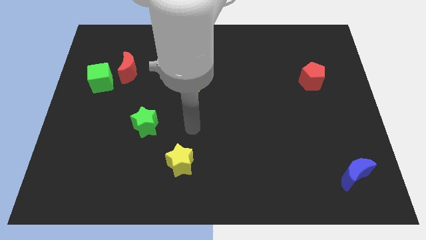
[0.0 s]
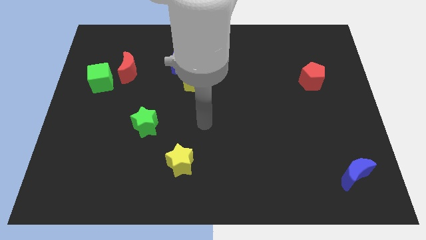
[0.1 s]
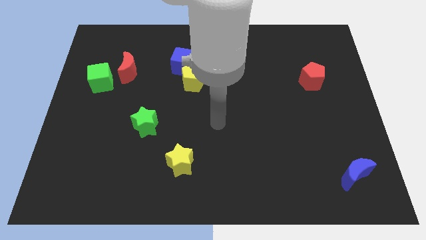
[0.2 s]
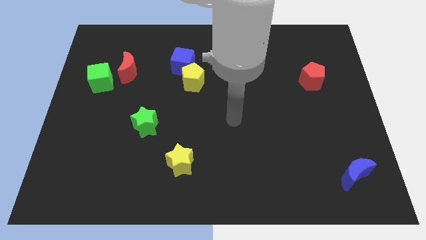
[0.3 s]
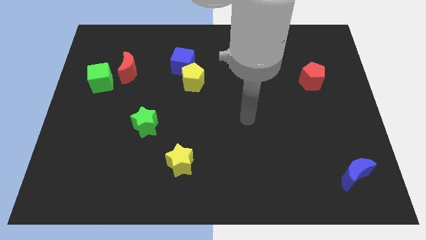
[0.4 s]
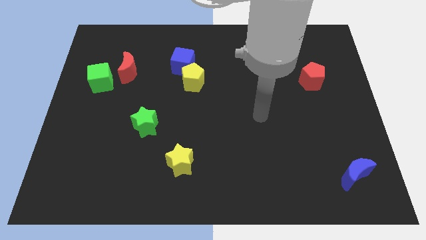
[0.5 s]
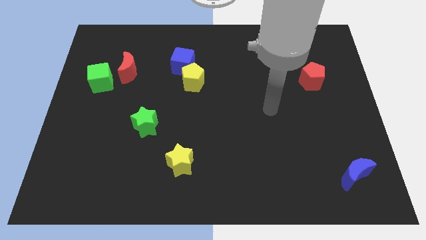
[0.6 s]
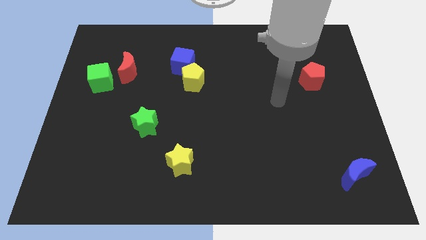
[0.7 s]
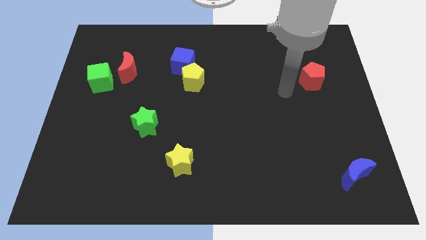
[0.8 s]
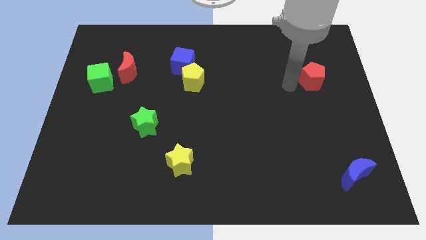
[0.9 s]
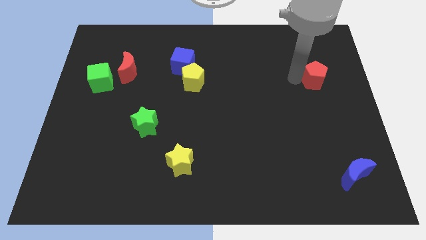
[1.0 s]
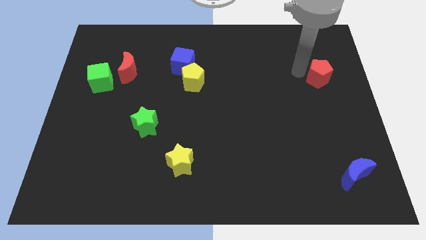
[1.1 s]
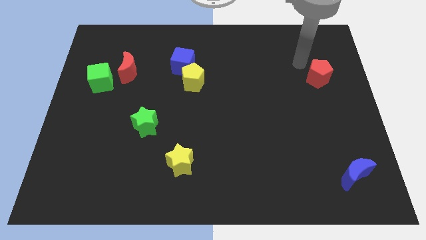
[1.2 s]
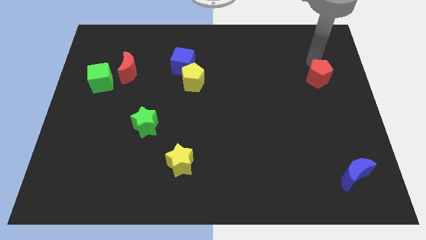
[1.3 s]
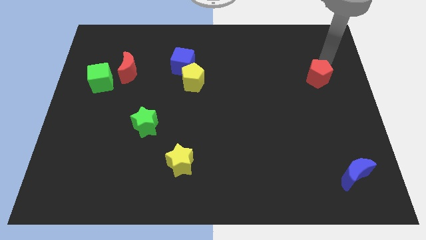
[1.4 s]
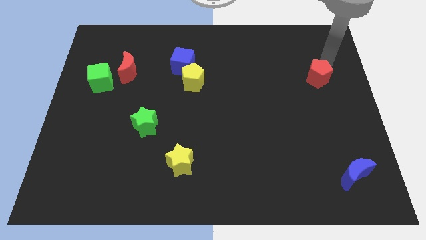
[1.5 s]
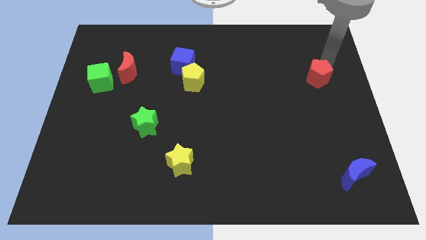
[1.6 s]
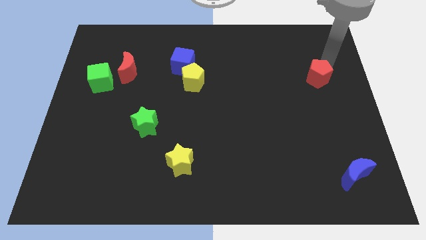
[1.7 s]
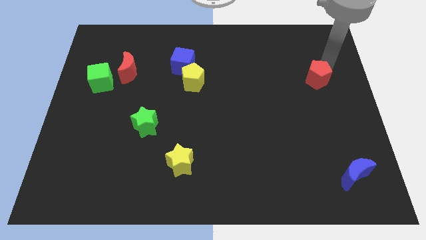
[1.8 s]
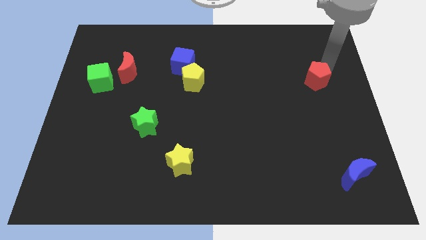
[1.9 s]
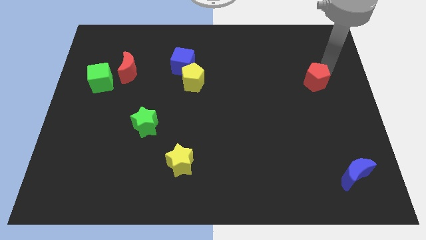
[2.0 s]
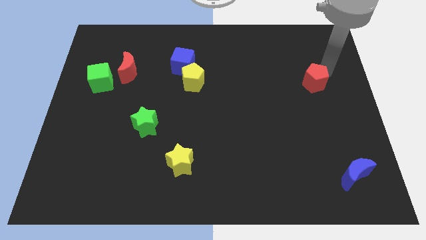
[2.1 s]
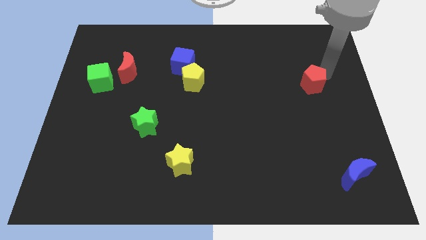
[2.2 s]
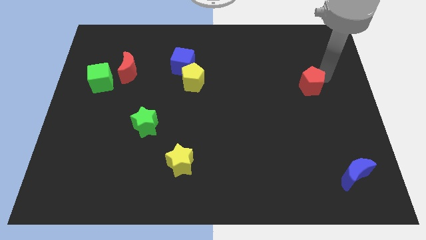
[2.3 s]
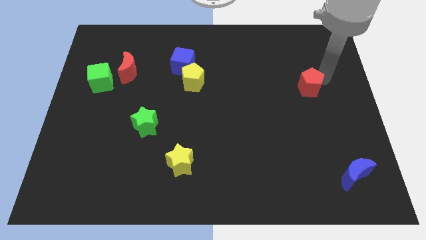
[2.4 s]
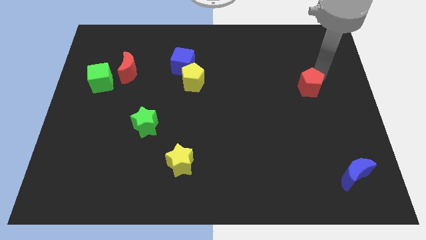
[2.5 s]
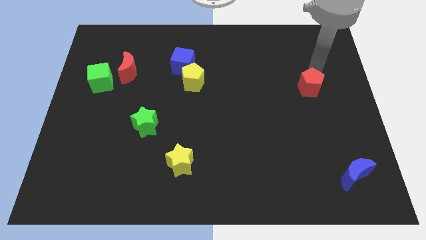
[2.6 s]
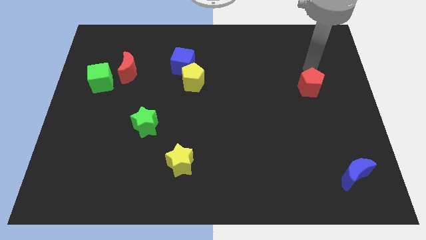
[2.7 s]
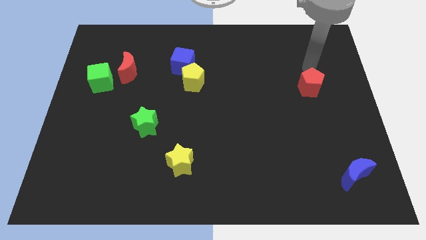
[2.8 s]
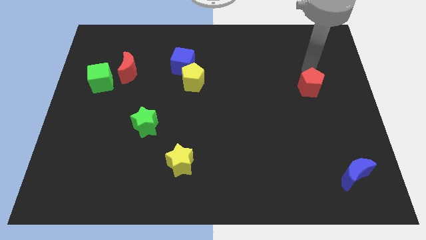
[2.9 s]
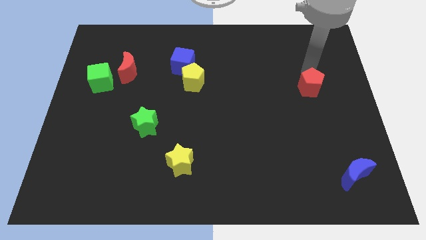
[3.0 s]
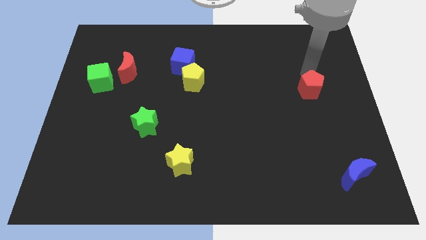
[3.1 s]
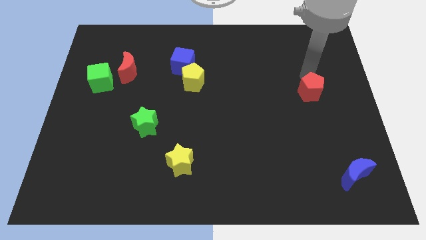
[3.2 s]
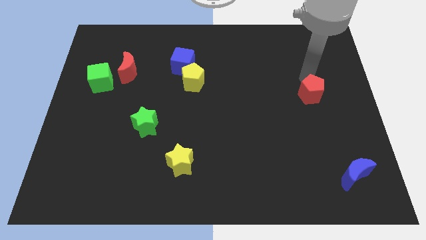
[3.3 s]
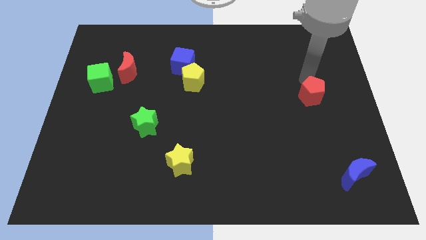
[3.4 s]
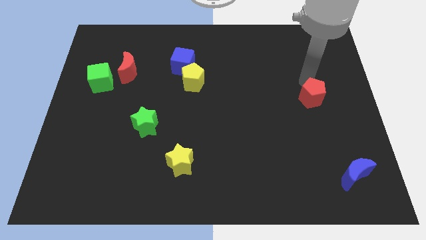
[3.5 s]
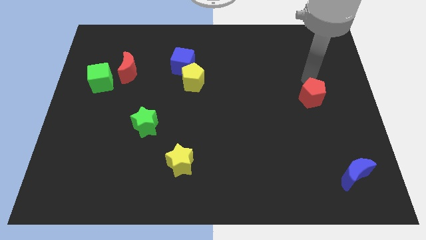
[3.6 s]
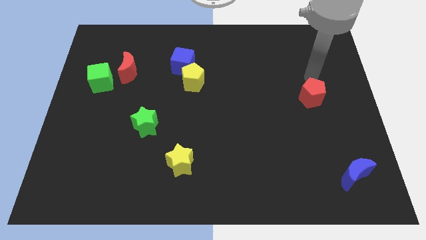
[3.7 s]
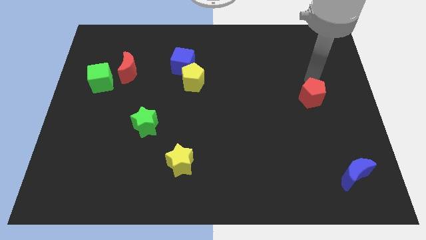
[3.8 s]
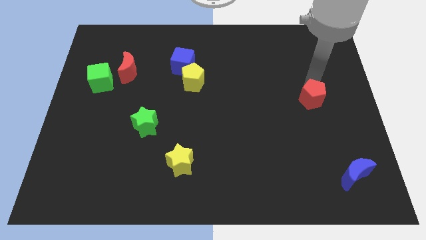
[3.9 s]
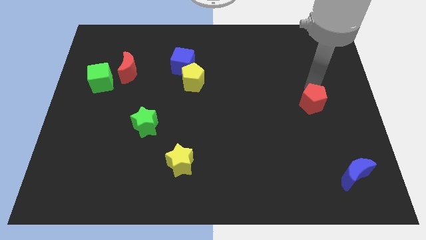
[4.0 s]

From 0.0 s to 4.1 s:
push the red pentagon down a bit

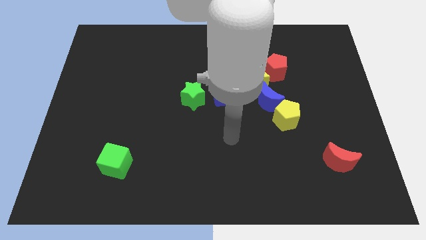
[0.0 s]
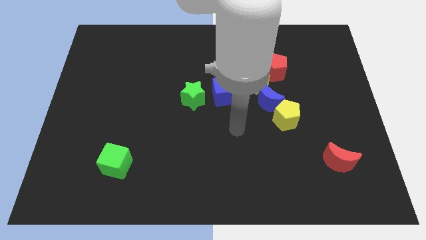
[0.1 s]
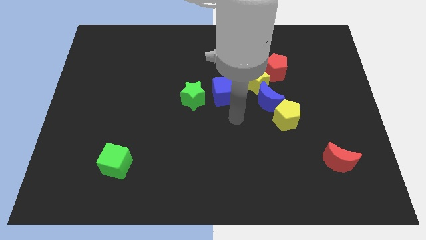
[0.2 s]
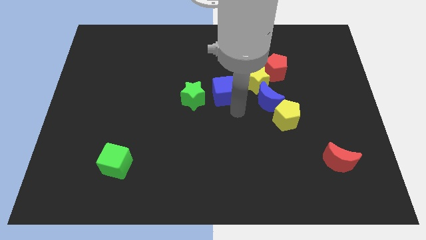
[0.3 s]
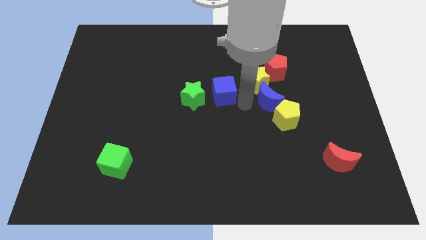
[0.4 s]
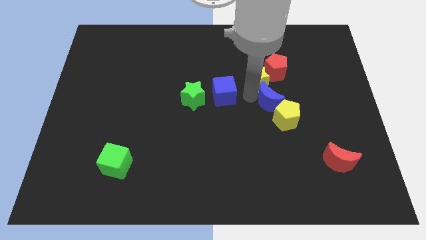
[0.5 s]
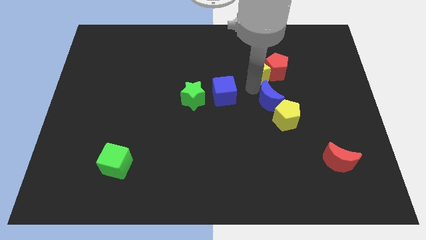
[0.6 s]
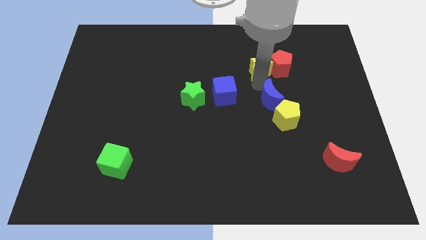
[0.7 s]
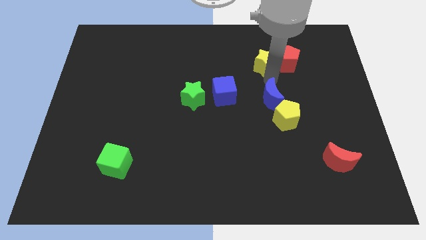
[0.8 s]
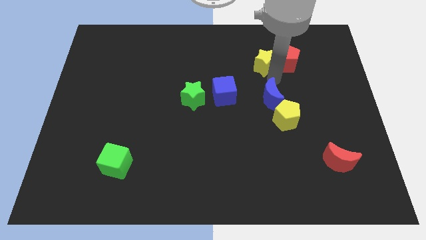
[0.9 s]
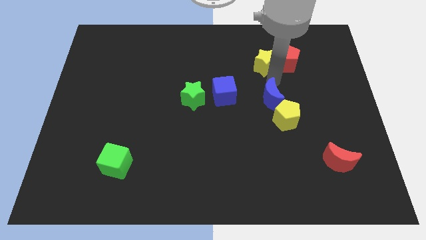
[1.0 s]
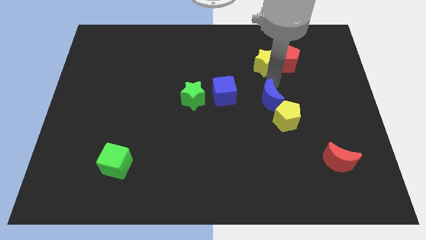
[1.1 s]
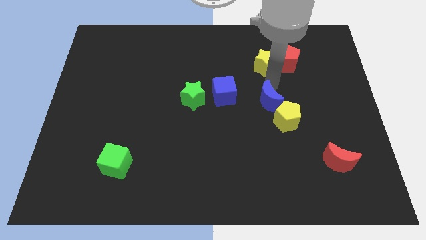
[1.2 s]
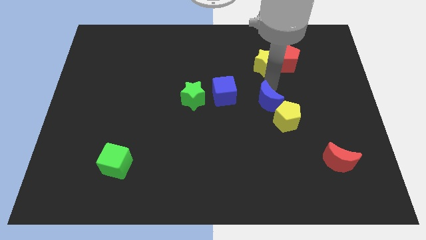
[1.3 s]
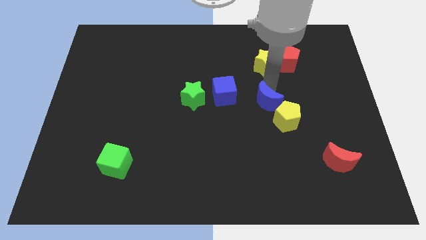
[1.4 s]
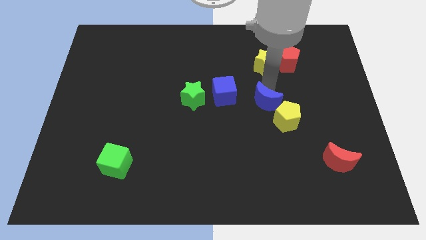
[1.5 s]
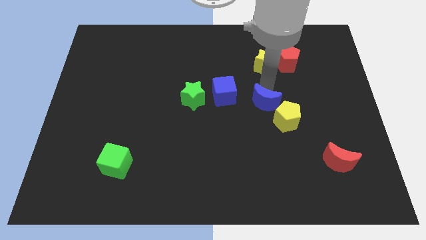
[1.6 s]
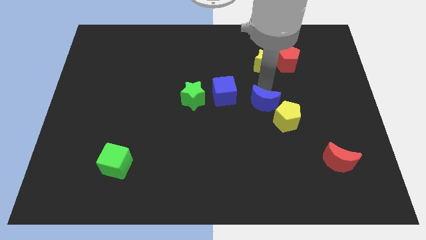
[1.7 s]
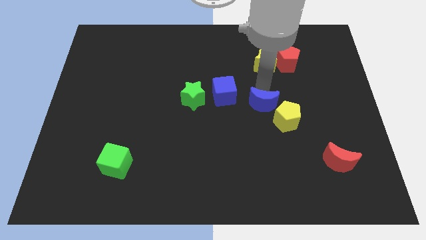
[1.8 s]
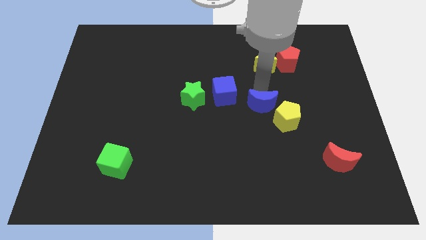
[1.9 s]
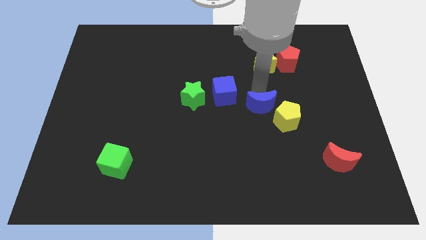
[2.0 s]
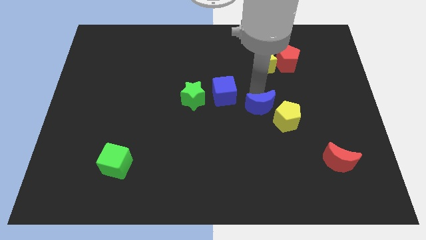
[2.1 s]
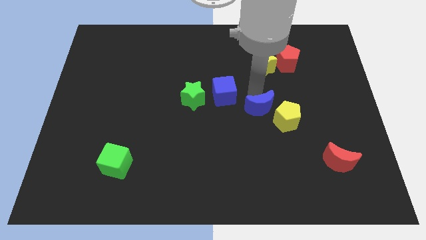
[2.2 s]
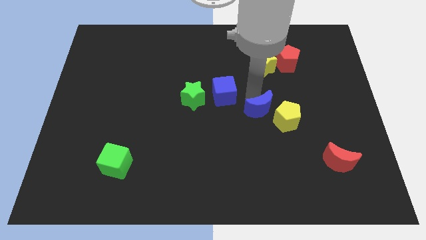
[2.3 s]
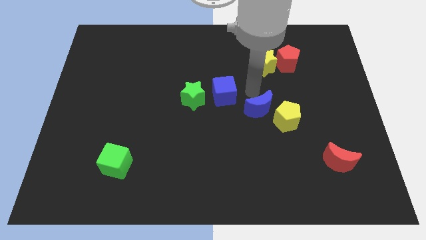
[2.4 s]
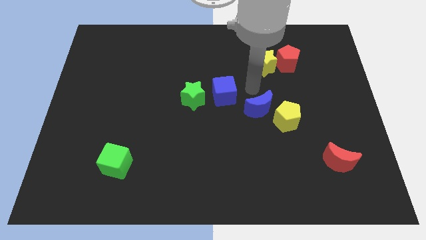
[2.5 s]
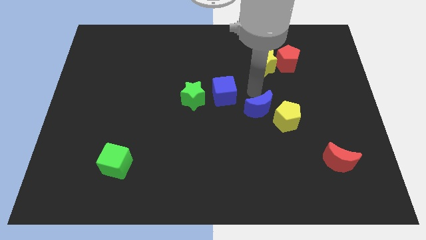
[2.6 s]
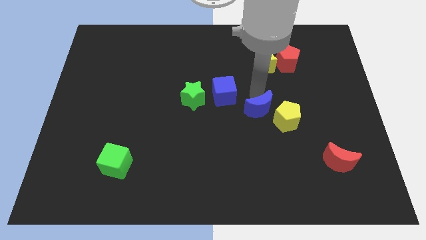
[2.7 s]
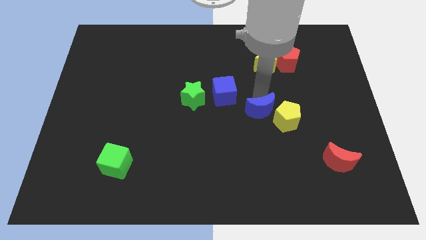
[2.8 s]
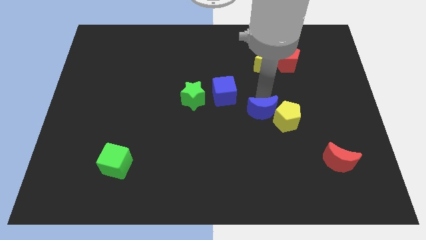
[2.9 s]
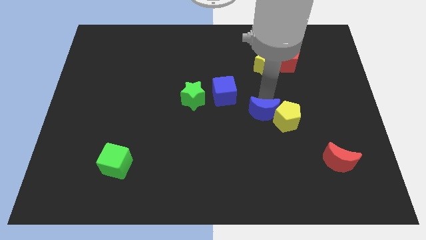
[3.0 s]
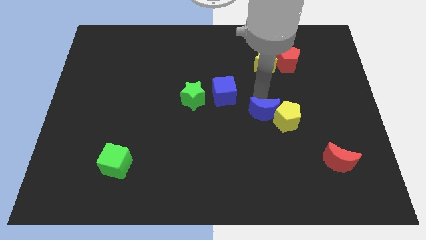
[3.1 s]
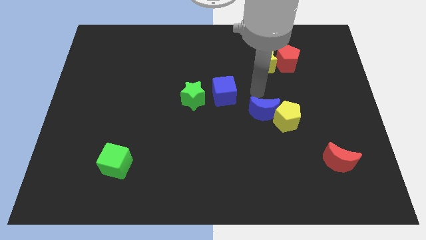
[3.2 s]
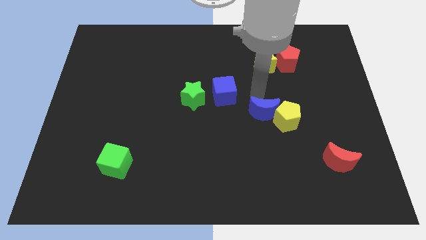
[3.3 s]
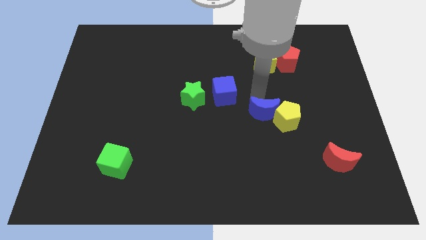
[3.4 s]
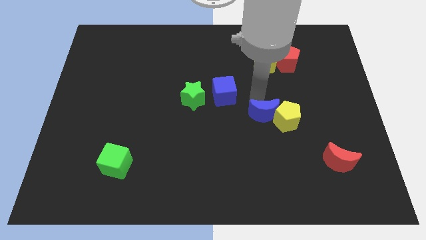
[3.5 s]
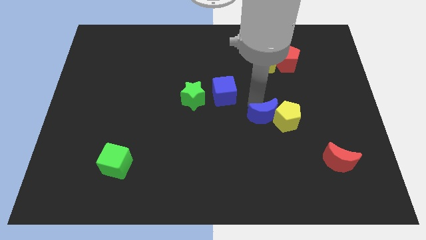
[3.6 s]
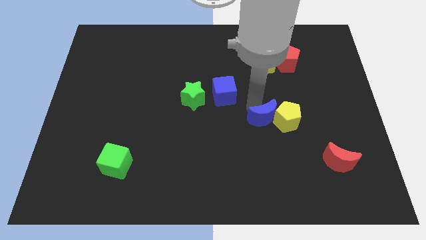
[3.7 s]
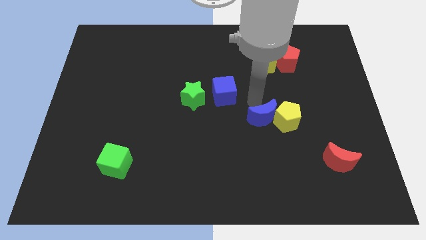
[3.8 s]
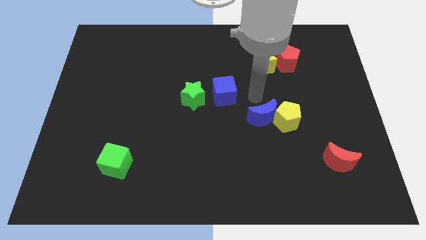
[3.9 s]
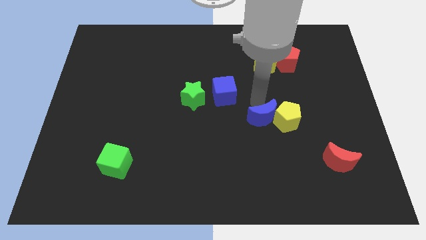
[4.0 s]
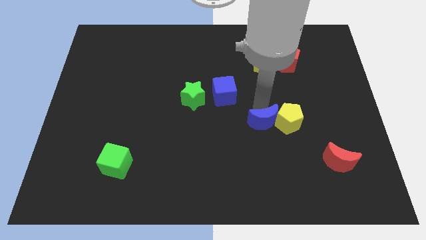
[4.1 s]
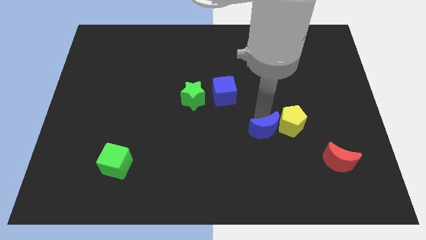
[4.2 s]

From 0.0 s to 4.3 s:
slide the blue moon a little bit downwards
